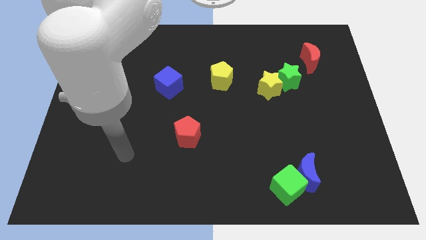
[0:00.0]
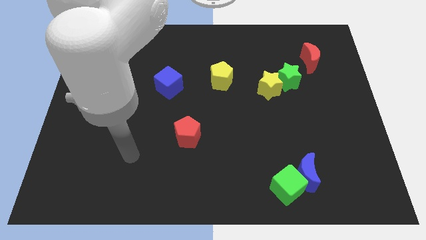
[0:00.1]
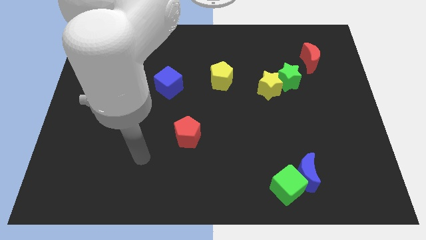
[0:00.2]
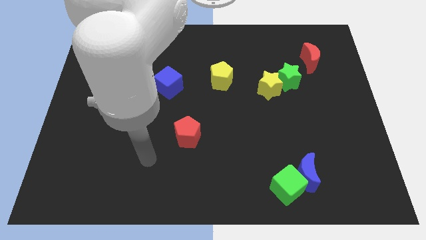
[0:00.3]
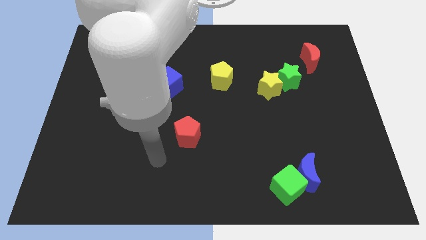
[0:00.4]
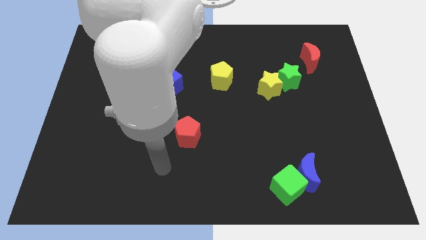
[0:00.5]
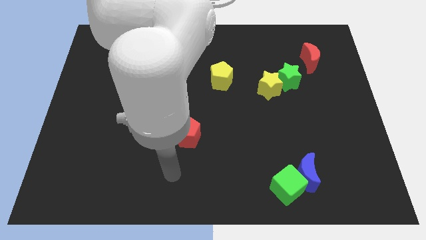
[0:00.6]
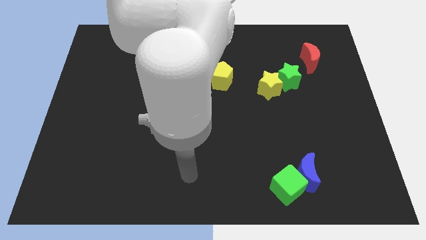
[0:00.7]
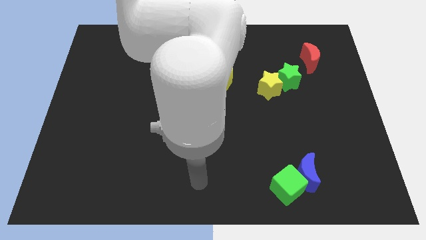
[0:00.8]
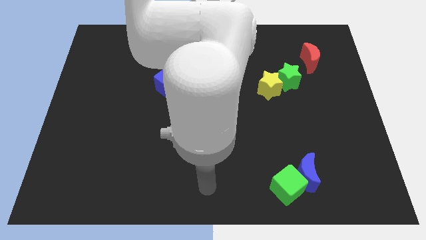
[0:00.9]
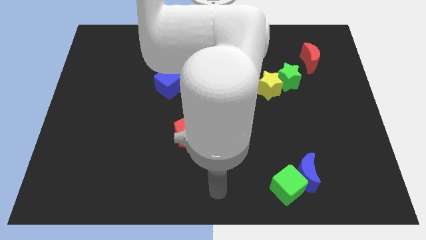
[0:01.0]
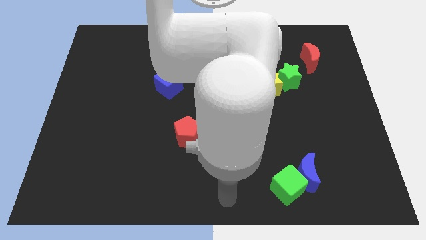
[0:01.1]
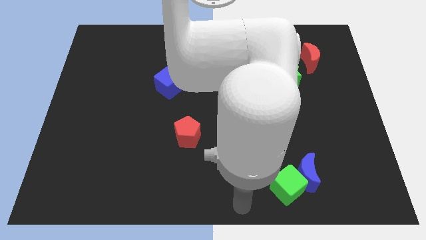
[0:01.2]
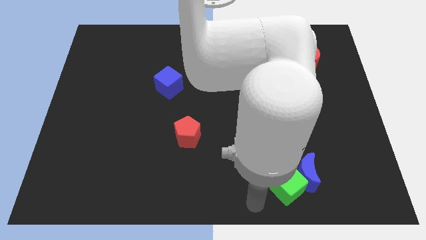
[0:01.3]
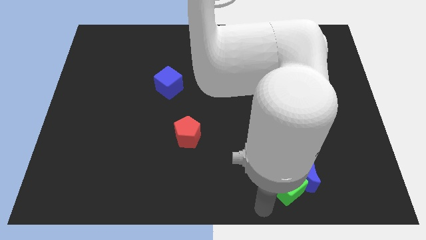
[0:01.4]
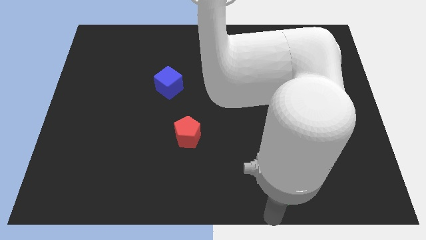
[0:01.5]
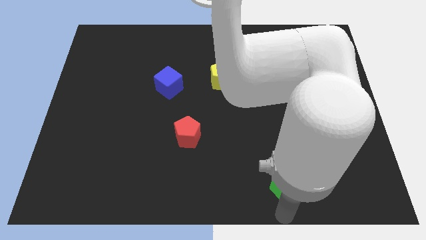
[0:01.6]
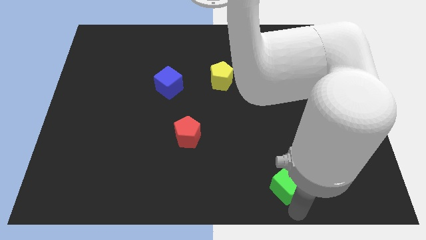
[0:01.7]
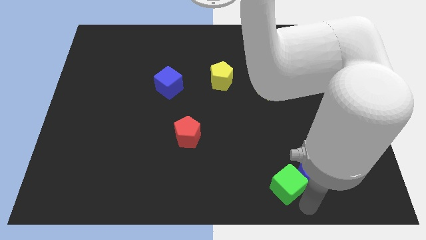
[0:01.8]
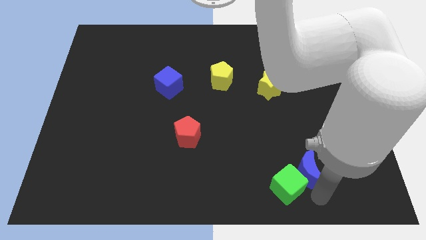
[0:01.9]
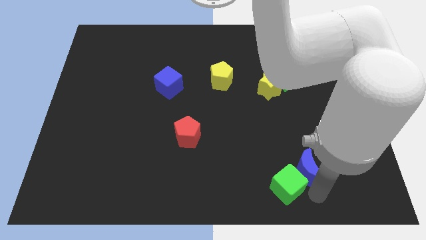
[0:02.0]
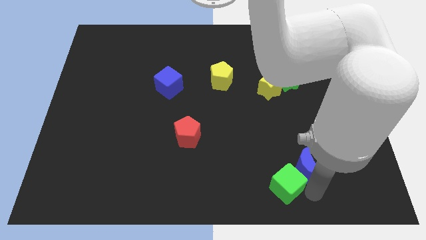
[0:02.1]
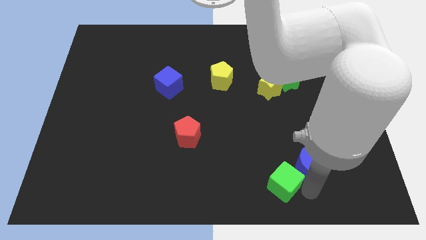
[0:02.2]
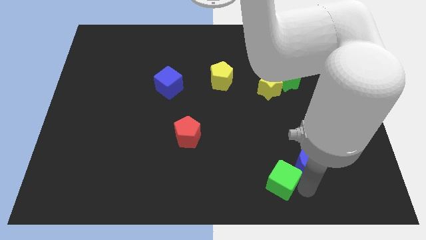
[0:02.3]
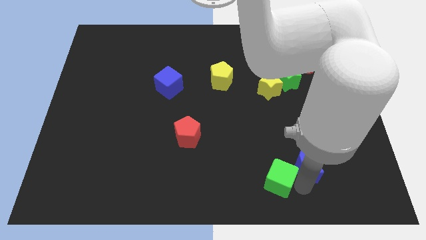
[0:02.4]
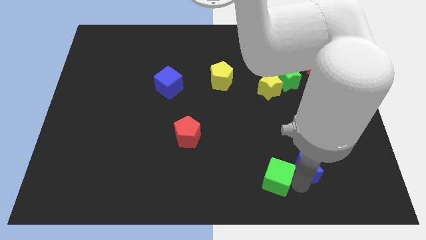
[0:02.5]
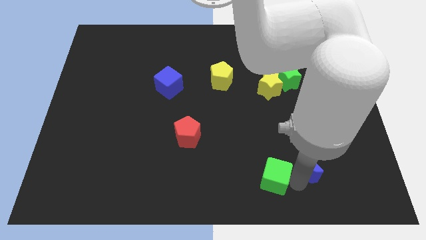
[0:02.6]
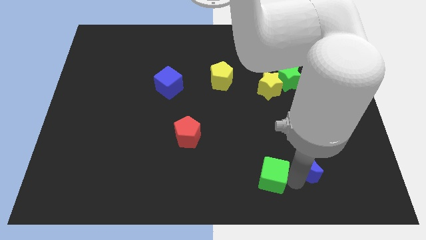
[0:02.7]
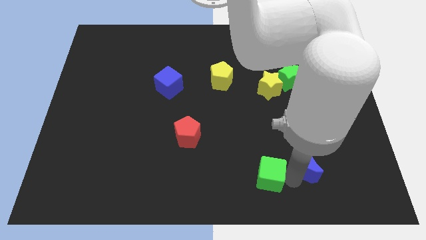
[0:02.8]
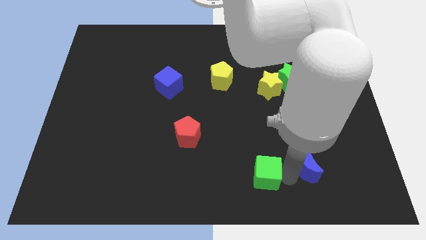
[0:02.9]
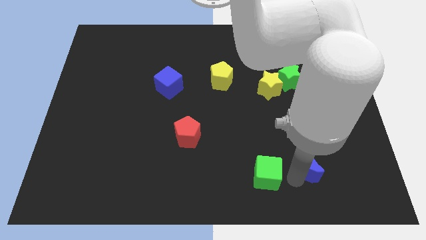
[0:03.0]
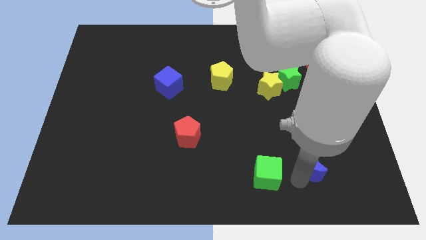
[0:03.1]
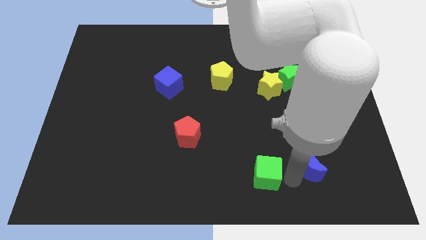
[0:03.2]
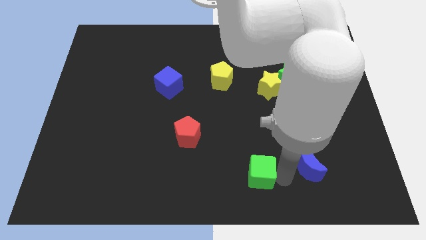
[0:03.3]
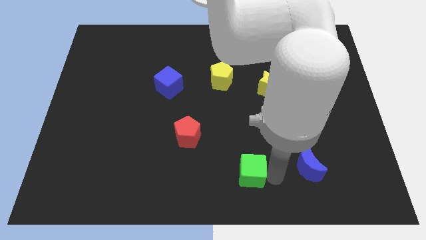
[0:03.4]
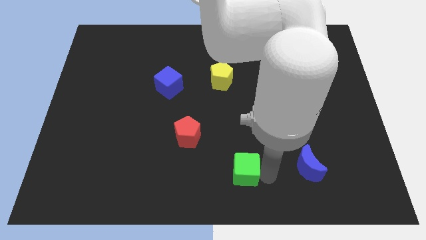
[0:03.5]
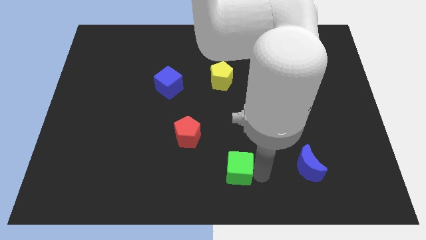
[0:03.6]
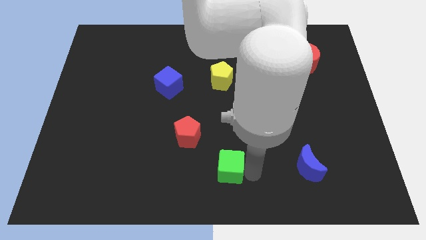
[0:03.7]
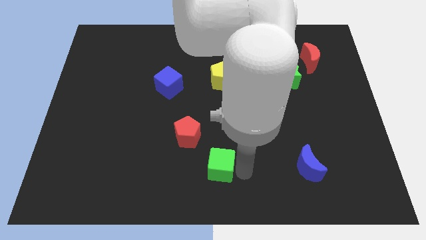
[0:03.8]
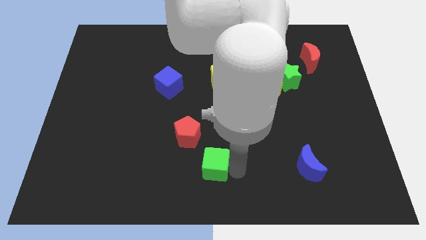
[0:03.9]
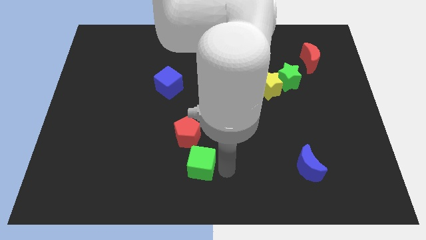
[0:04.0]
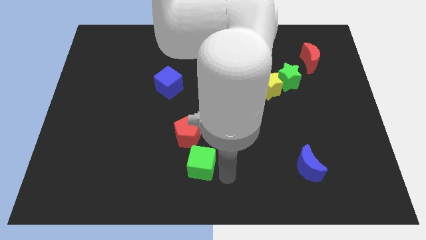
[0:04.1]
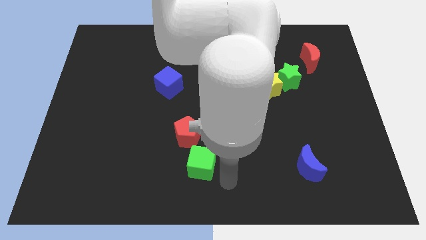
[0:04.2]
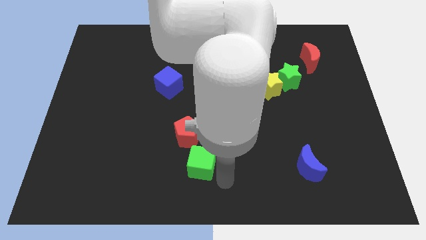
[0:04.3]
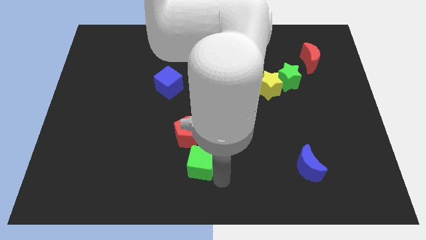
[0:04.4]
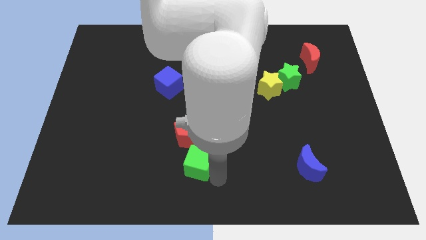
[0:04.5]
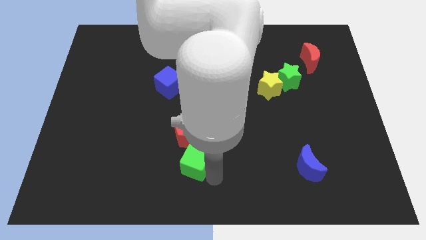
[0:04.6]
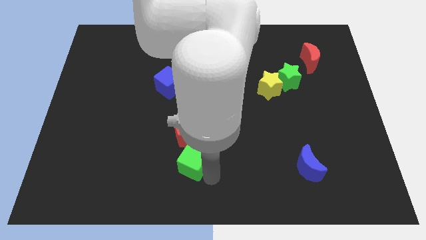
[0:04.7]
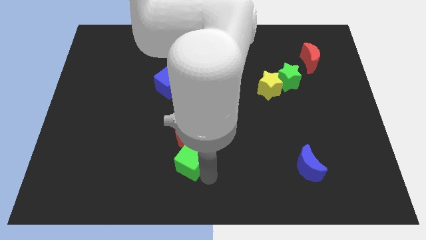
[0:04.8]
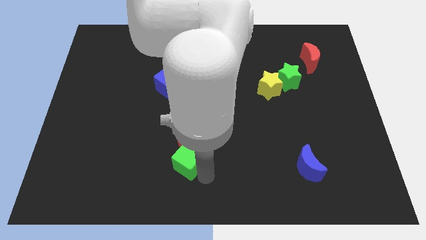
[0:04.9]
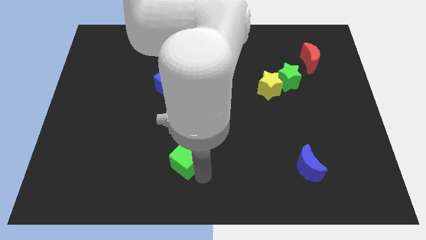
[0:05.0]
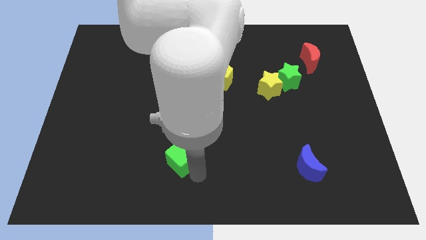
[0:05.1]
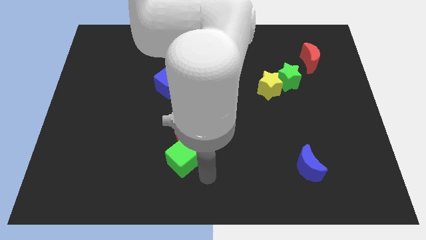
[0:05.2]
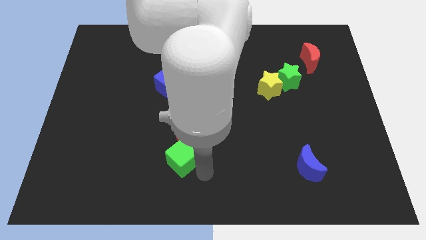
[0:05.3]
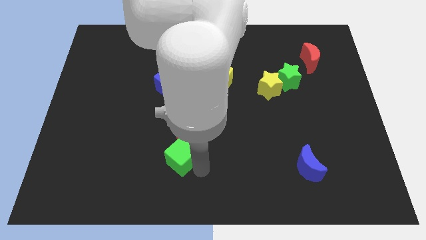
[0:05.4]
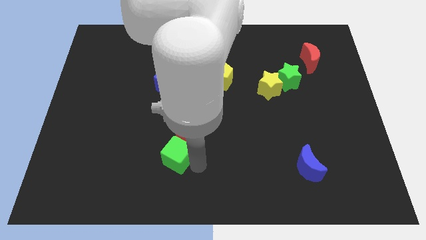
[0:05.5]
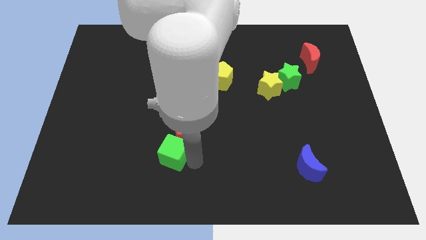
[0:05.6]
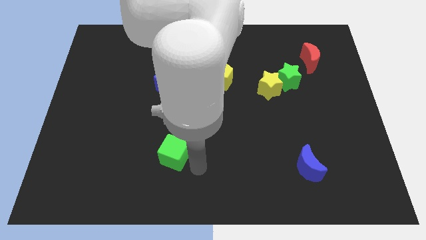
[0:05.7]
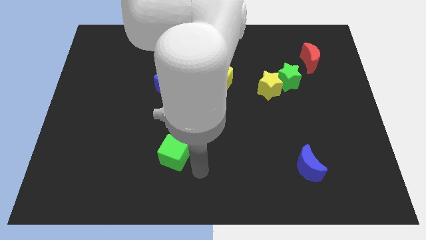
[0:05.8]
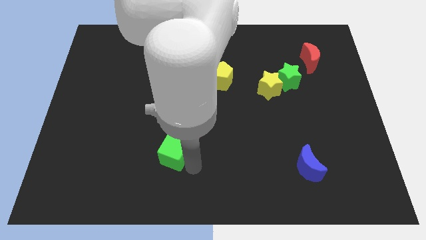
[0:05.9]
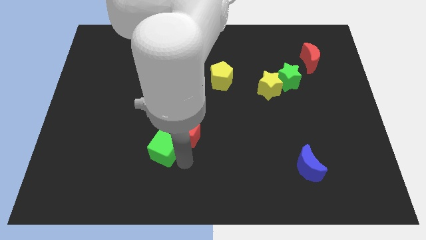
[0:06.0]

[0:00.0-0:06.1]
put the green cube to the left of the red pentagon
